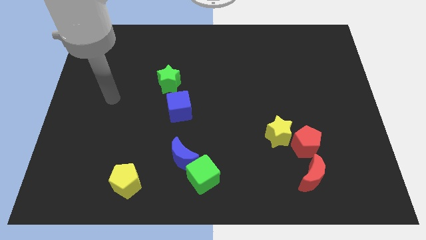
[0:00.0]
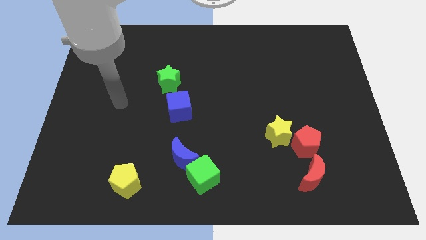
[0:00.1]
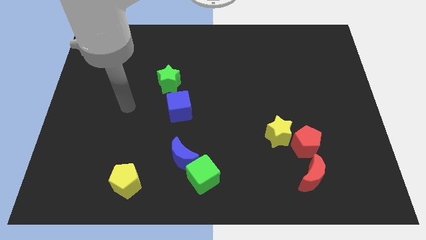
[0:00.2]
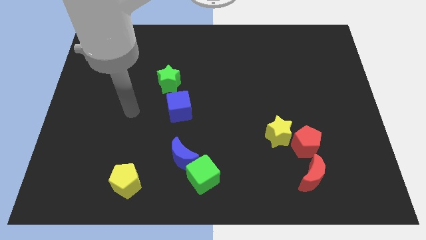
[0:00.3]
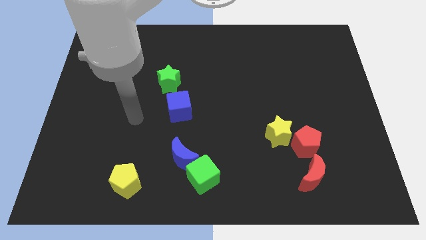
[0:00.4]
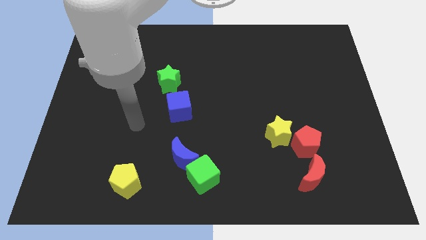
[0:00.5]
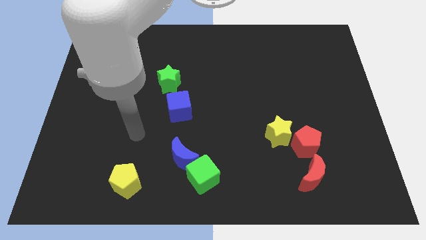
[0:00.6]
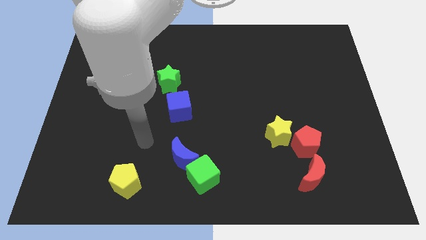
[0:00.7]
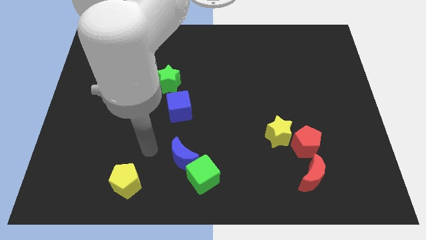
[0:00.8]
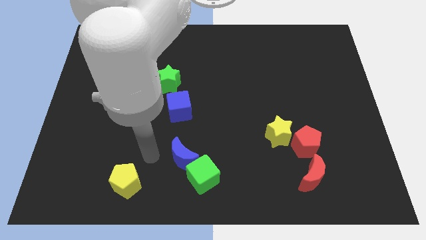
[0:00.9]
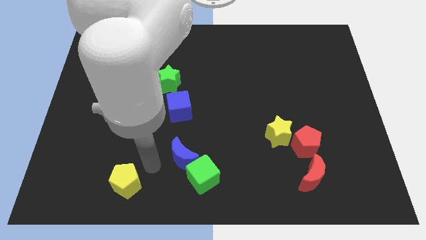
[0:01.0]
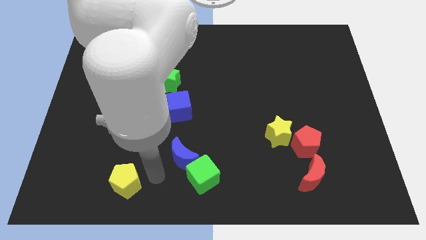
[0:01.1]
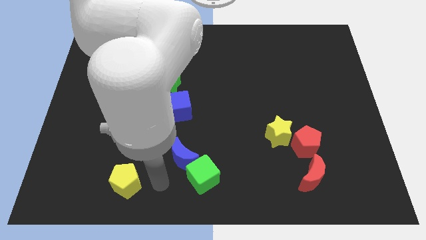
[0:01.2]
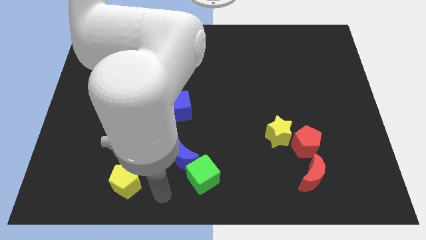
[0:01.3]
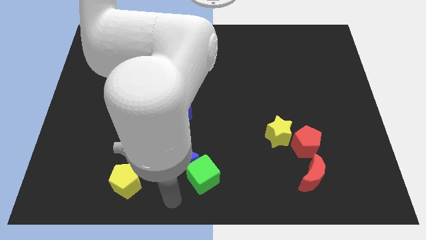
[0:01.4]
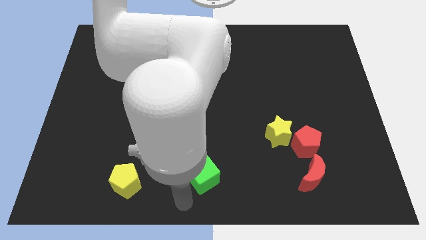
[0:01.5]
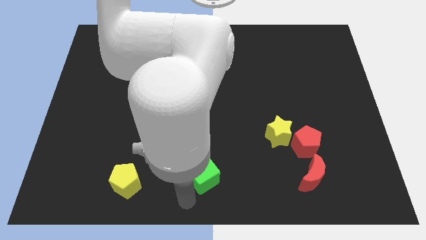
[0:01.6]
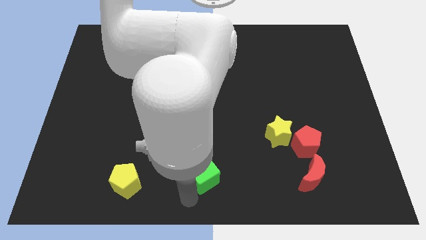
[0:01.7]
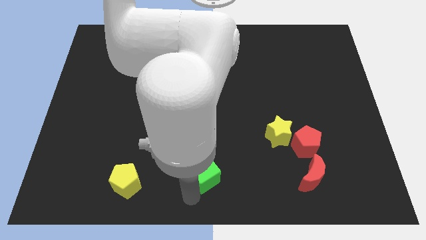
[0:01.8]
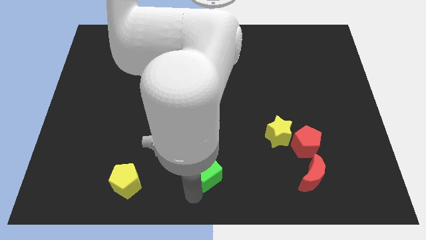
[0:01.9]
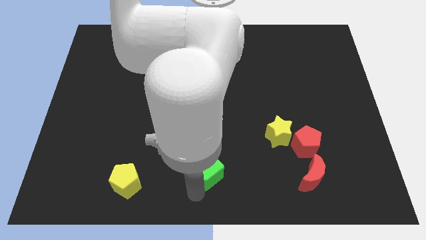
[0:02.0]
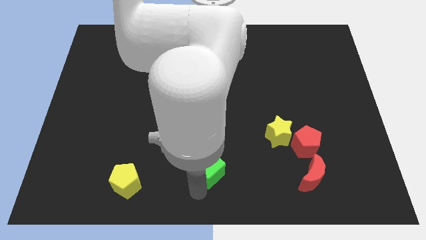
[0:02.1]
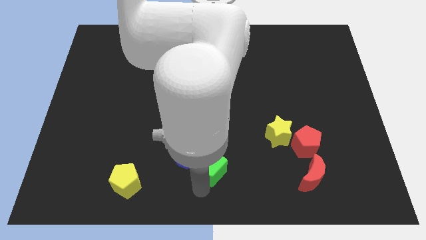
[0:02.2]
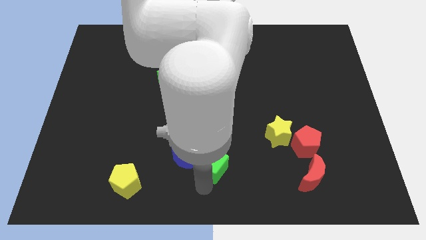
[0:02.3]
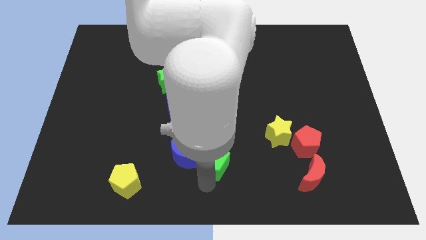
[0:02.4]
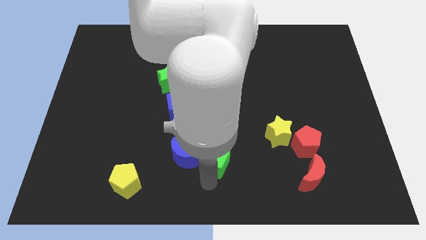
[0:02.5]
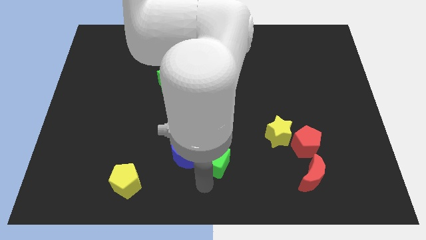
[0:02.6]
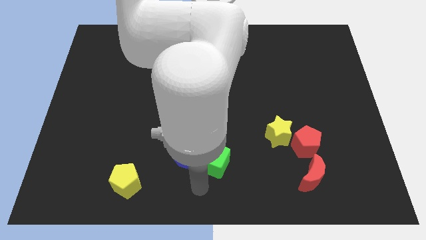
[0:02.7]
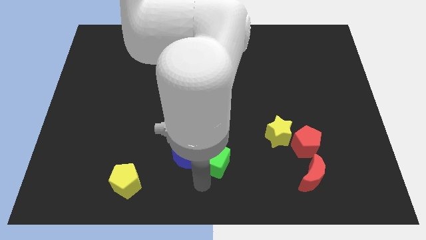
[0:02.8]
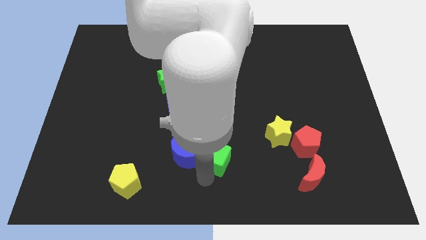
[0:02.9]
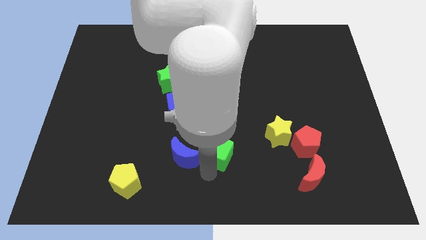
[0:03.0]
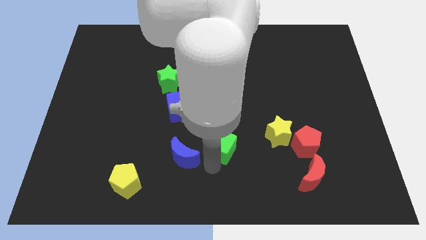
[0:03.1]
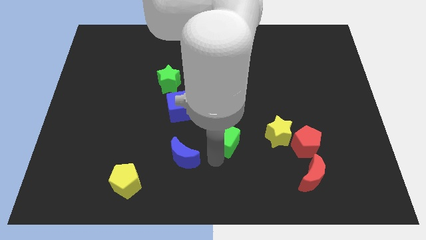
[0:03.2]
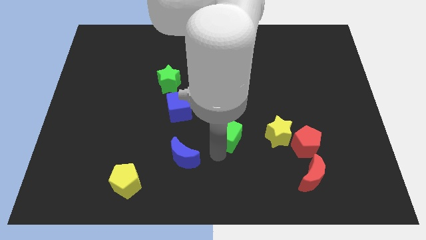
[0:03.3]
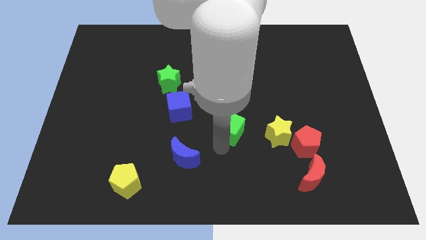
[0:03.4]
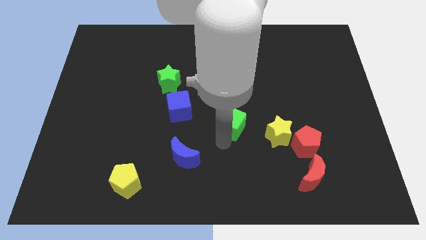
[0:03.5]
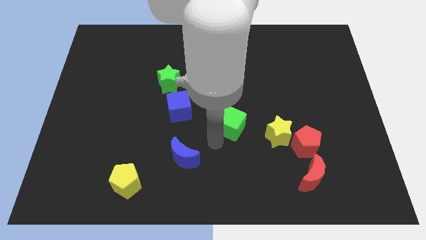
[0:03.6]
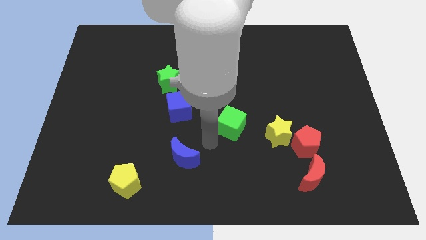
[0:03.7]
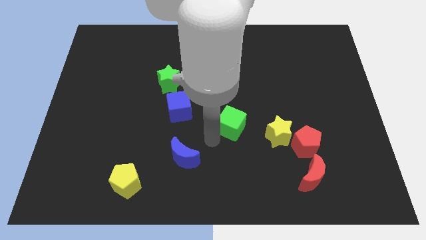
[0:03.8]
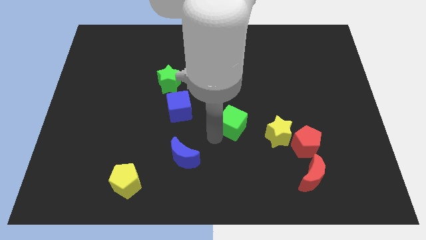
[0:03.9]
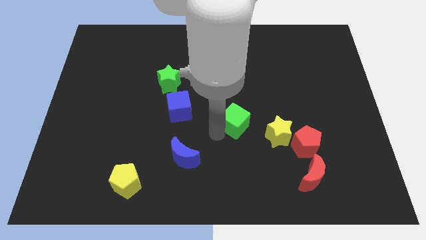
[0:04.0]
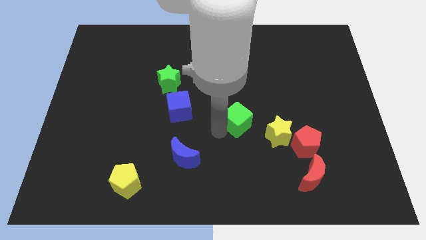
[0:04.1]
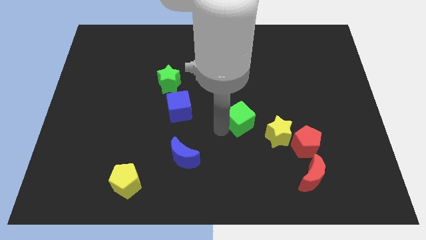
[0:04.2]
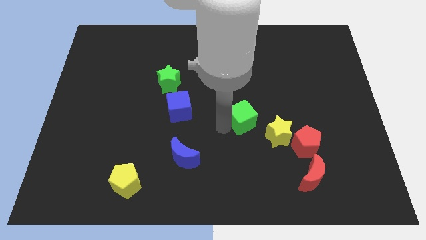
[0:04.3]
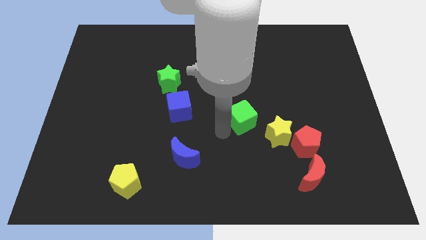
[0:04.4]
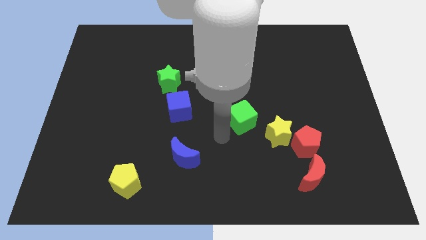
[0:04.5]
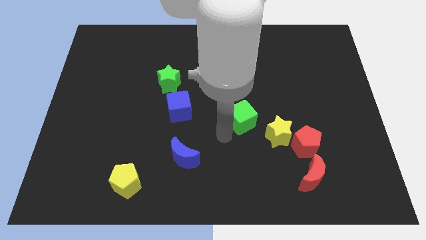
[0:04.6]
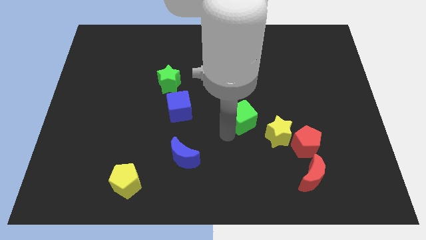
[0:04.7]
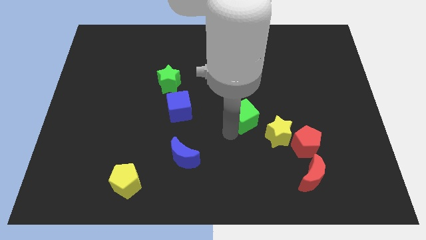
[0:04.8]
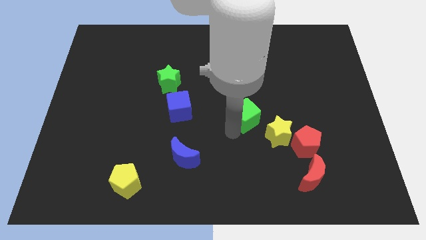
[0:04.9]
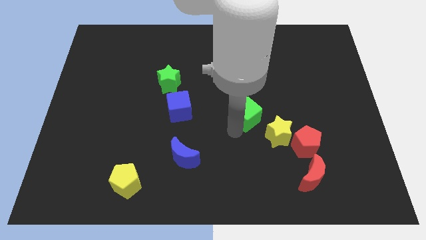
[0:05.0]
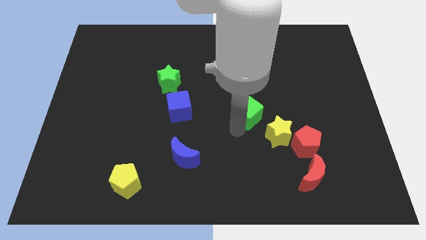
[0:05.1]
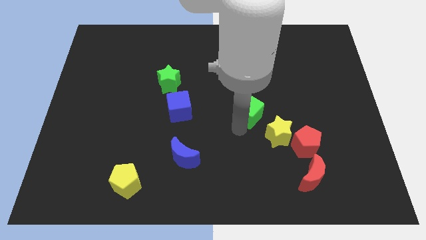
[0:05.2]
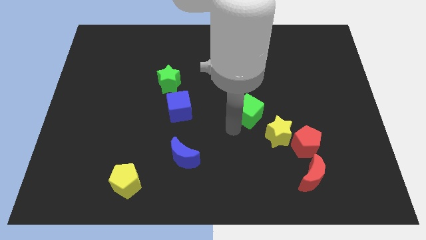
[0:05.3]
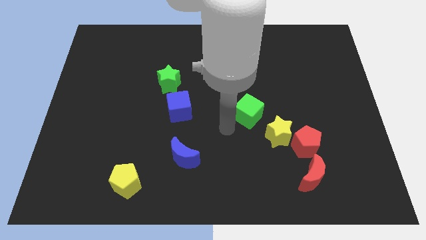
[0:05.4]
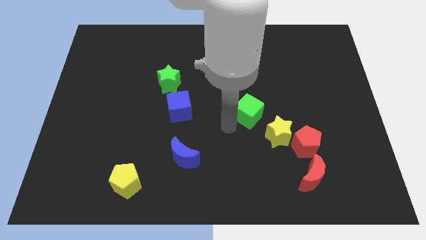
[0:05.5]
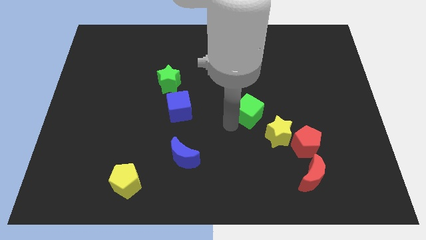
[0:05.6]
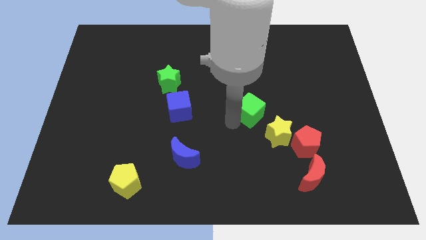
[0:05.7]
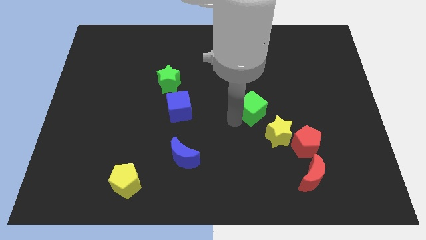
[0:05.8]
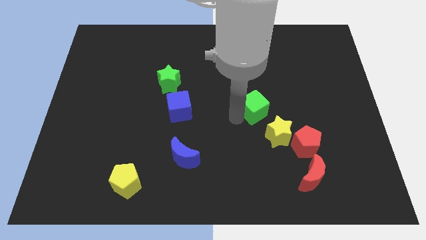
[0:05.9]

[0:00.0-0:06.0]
push the green cube to the top side of the yellow star

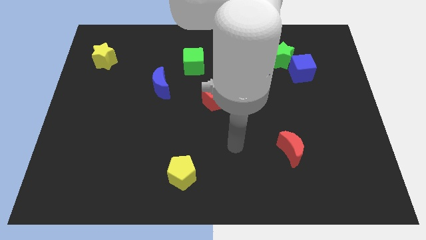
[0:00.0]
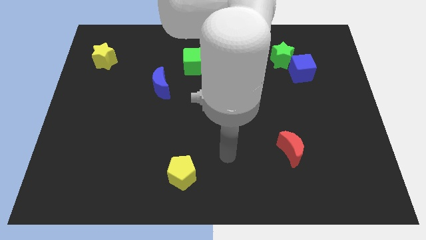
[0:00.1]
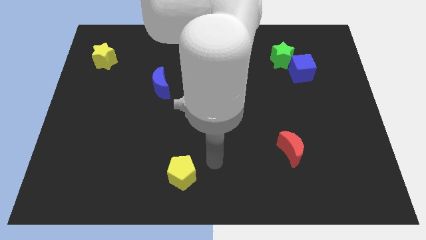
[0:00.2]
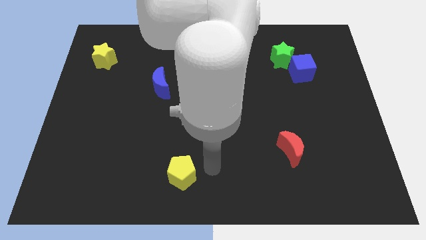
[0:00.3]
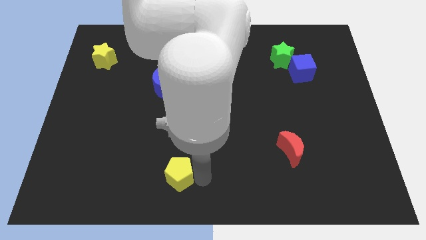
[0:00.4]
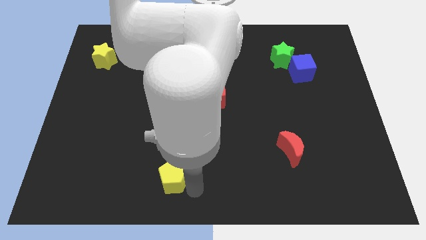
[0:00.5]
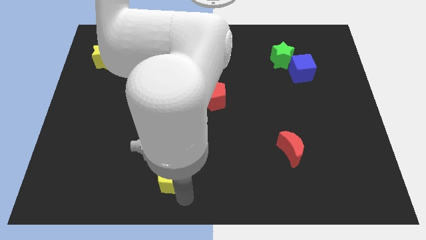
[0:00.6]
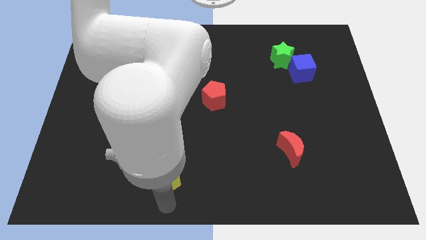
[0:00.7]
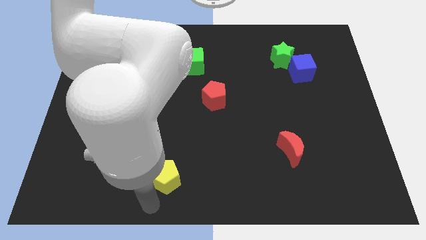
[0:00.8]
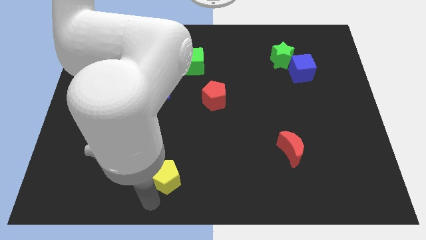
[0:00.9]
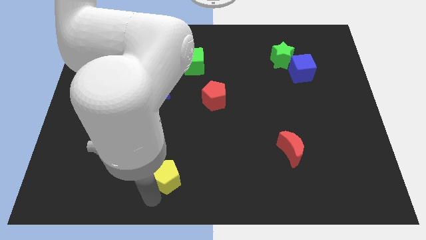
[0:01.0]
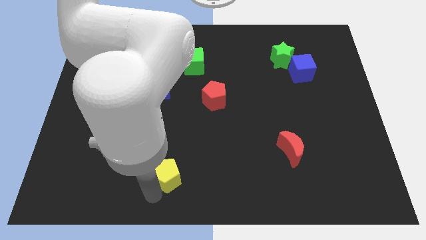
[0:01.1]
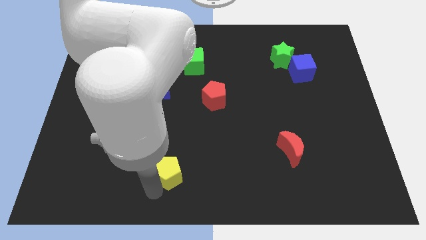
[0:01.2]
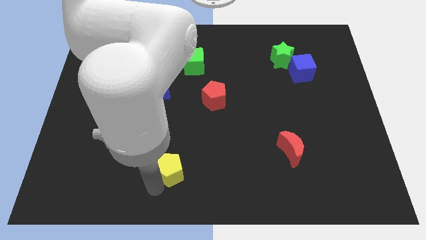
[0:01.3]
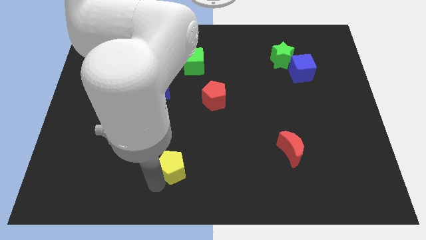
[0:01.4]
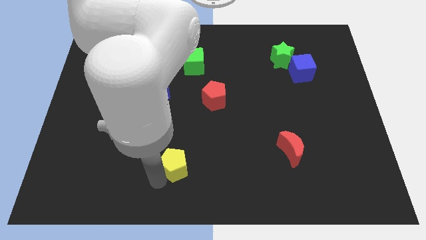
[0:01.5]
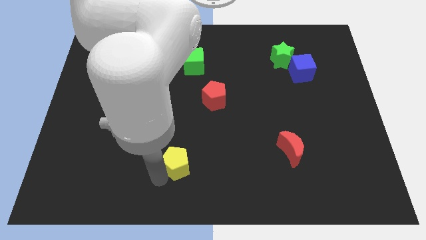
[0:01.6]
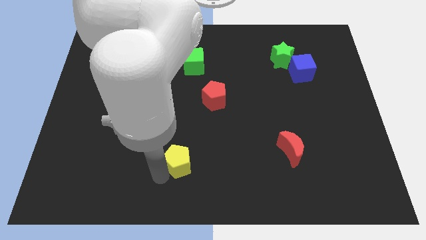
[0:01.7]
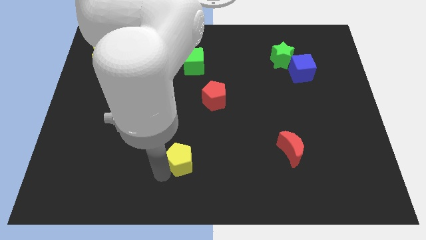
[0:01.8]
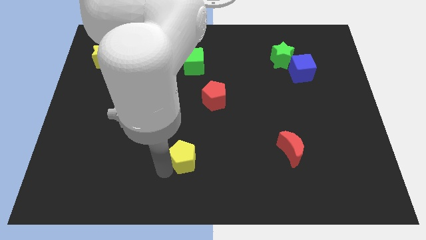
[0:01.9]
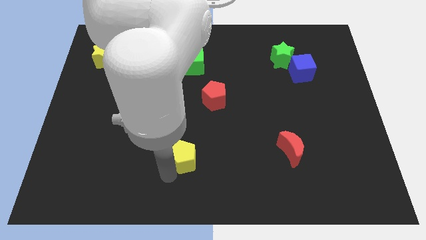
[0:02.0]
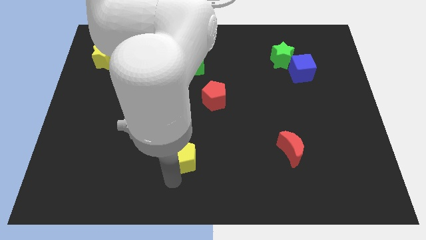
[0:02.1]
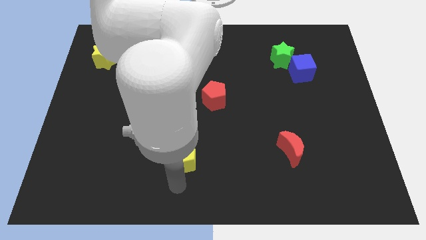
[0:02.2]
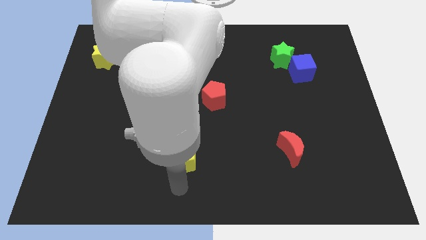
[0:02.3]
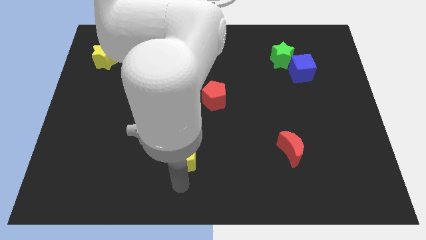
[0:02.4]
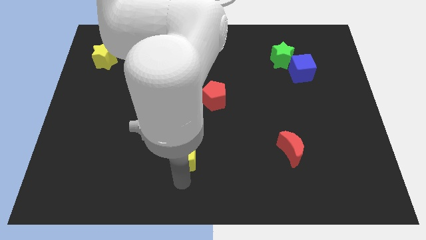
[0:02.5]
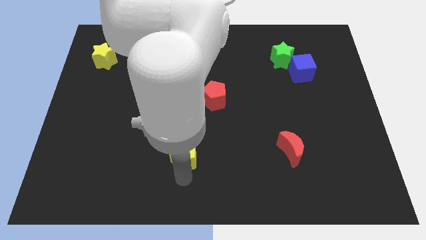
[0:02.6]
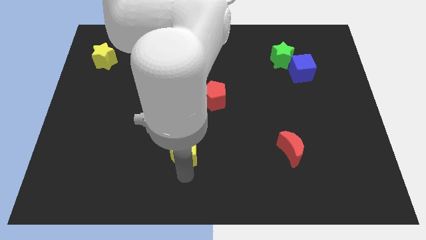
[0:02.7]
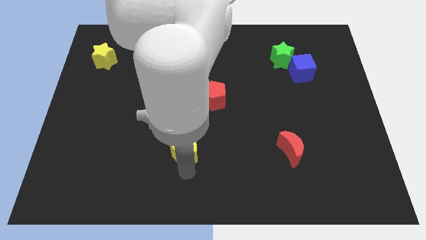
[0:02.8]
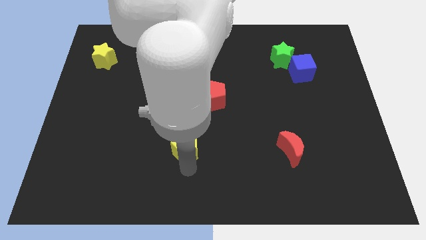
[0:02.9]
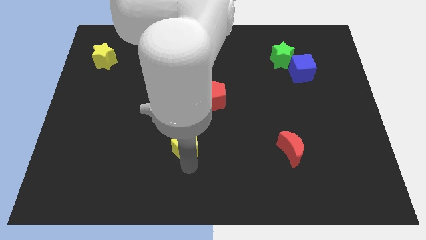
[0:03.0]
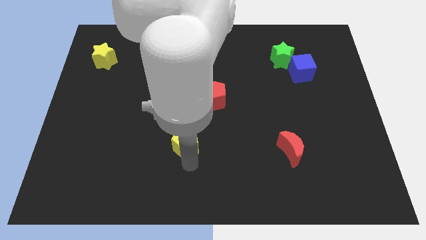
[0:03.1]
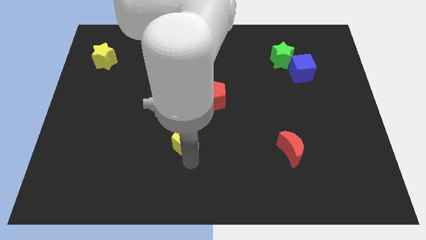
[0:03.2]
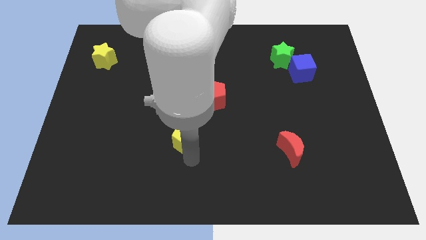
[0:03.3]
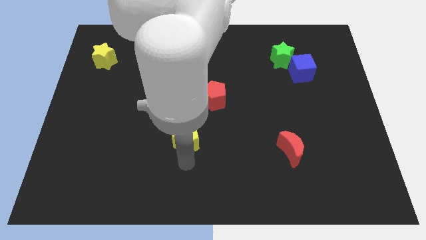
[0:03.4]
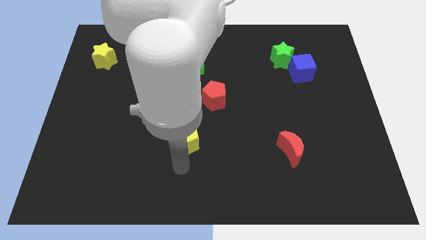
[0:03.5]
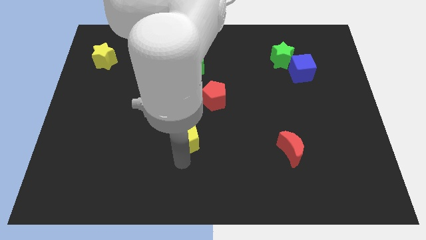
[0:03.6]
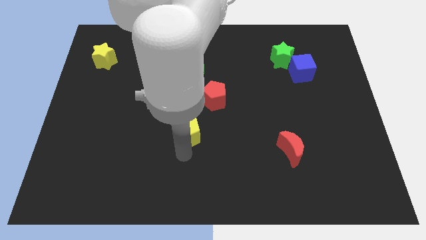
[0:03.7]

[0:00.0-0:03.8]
slide the yellow pentagon to the bottom left side of the red pentagon
